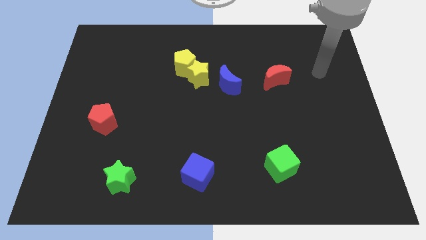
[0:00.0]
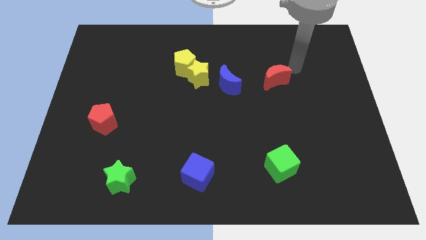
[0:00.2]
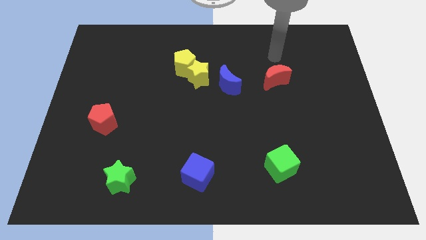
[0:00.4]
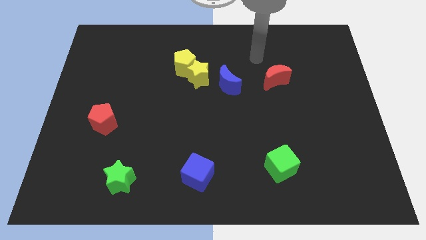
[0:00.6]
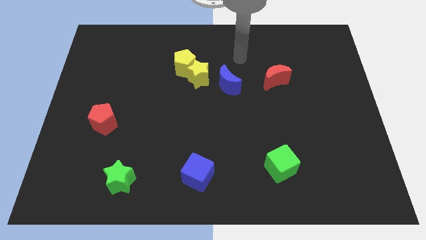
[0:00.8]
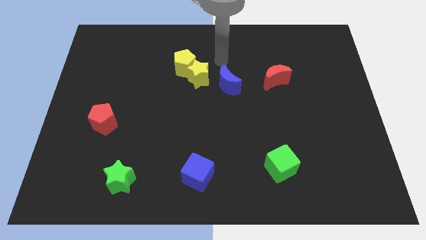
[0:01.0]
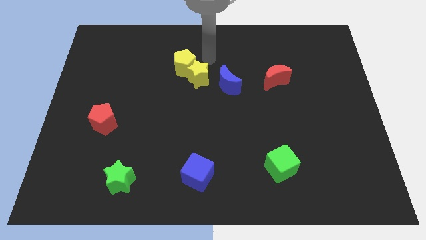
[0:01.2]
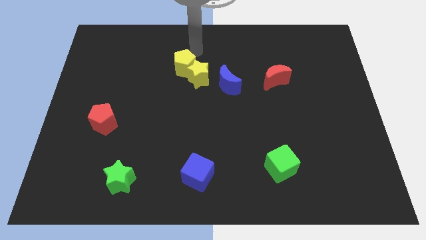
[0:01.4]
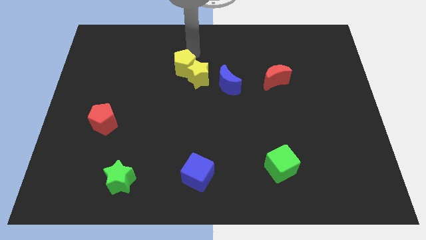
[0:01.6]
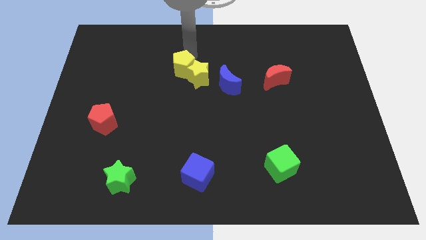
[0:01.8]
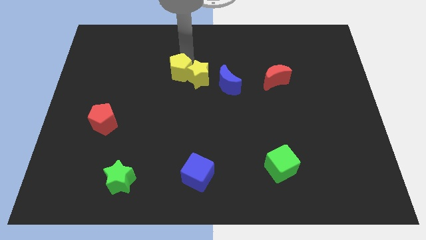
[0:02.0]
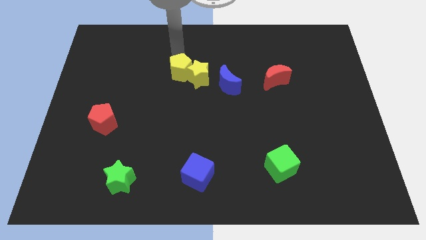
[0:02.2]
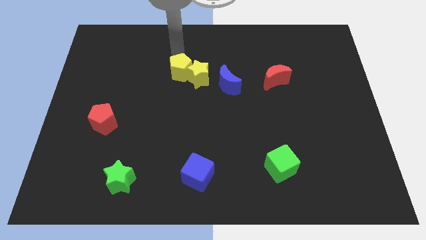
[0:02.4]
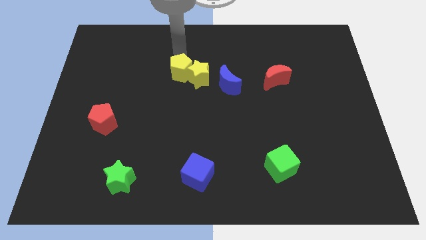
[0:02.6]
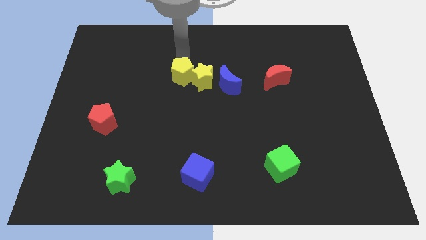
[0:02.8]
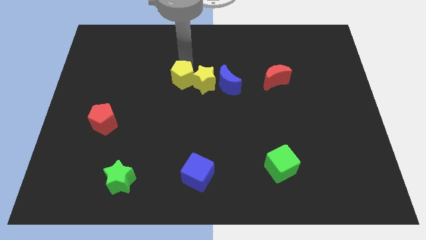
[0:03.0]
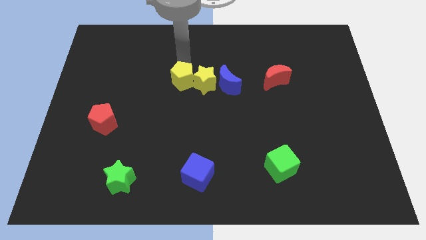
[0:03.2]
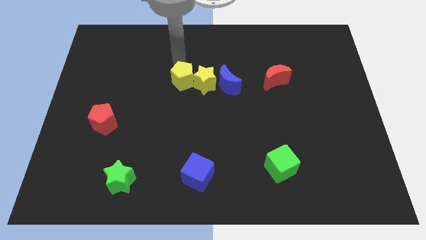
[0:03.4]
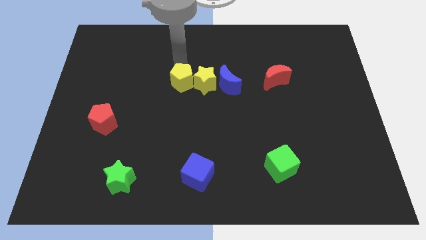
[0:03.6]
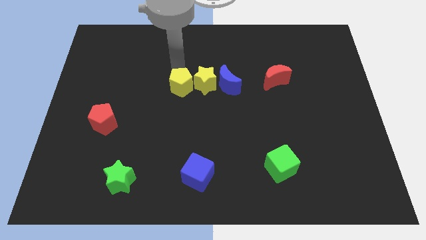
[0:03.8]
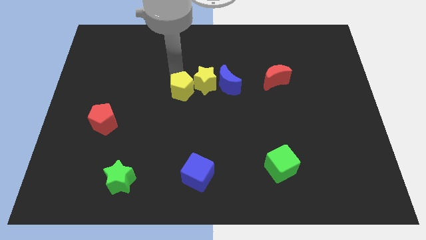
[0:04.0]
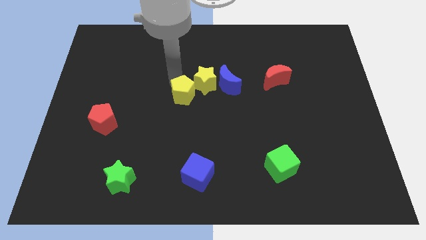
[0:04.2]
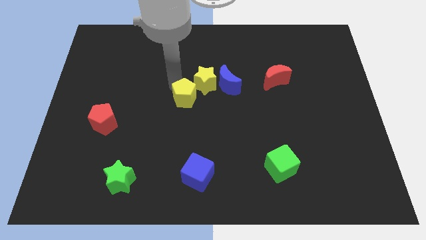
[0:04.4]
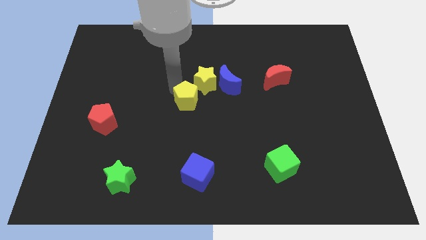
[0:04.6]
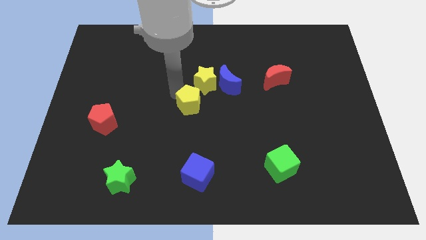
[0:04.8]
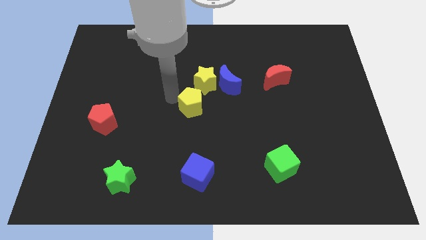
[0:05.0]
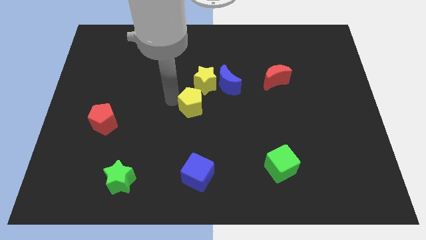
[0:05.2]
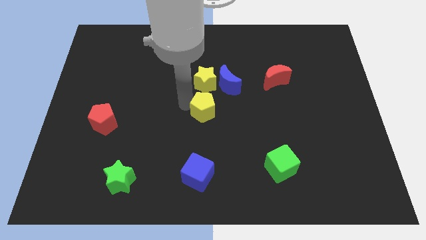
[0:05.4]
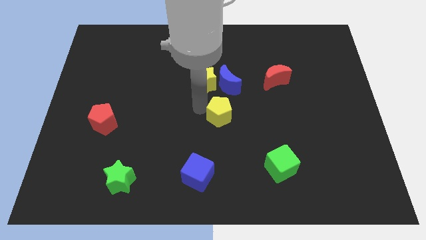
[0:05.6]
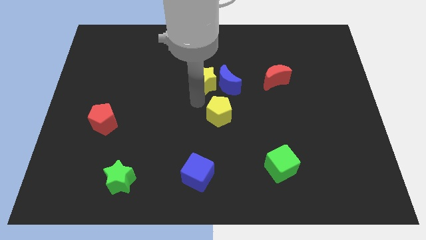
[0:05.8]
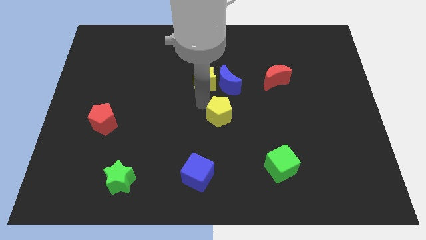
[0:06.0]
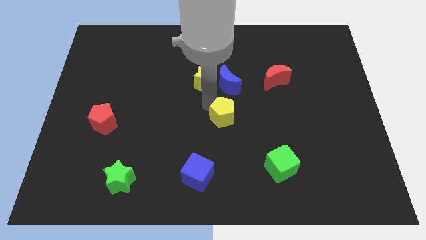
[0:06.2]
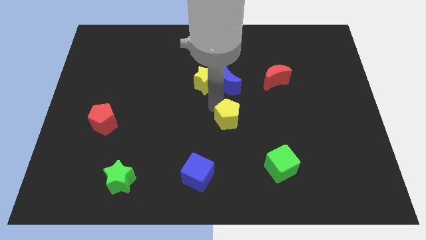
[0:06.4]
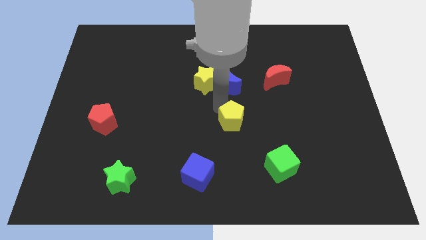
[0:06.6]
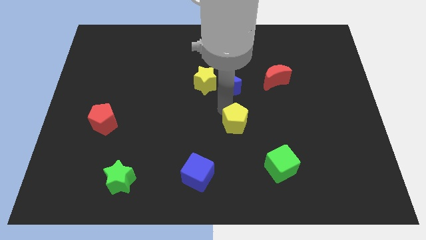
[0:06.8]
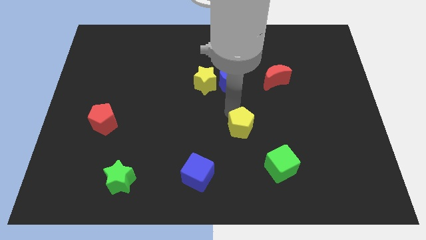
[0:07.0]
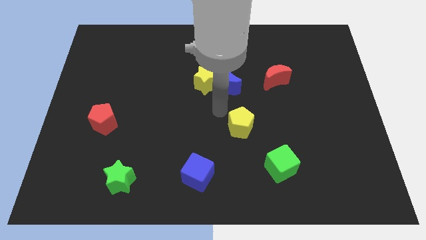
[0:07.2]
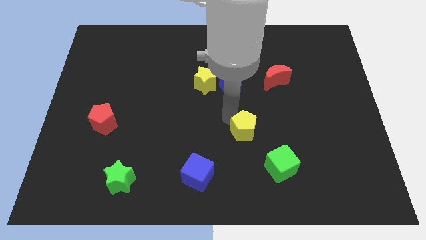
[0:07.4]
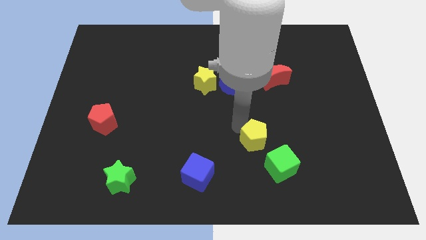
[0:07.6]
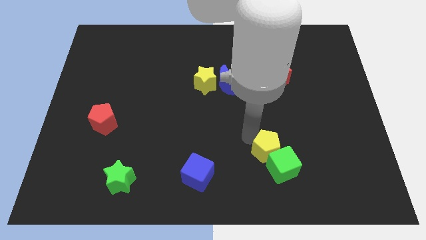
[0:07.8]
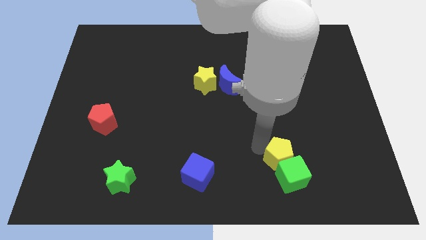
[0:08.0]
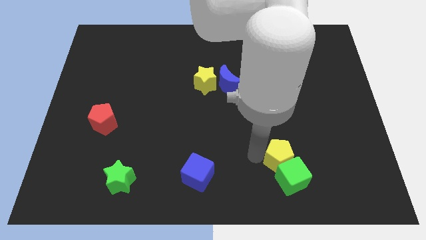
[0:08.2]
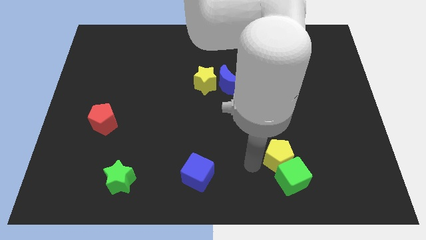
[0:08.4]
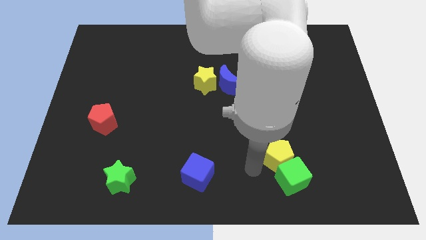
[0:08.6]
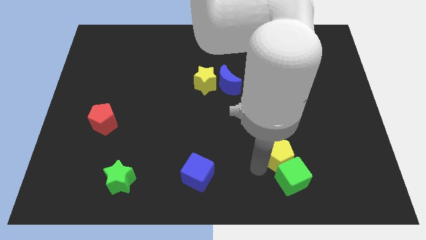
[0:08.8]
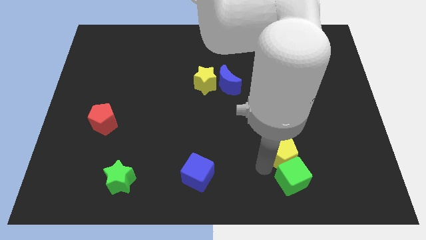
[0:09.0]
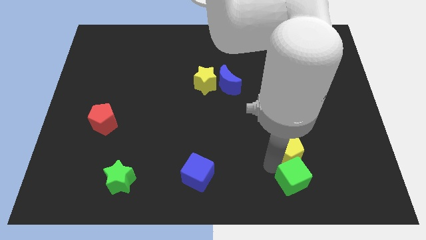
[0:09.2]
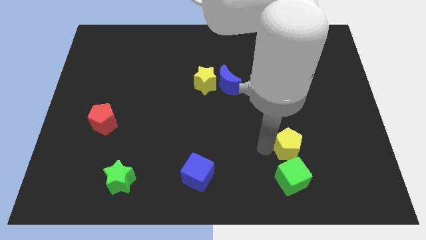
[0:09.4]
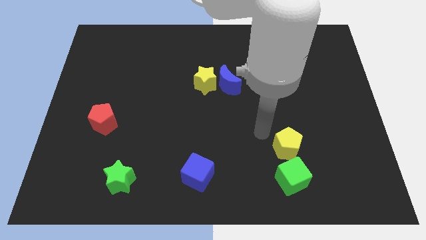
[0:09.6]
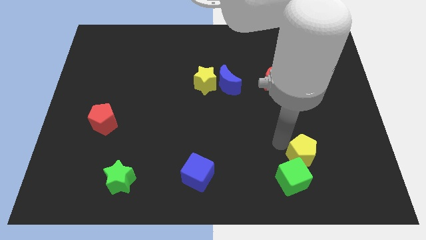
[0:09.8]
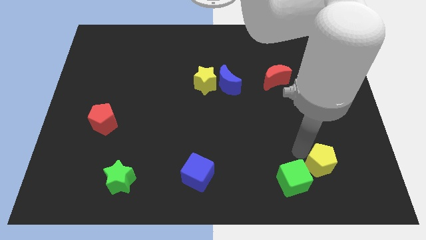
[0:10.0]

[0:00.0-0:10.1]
move the yellow pentagon just right of the green cube

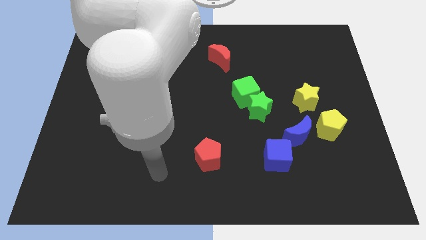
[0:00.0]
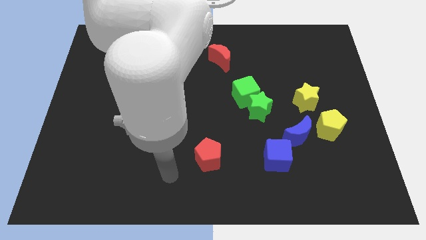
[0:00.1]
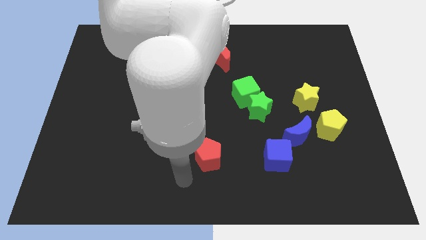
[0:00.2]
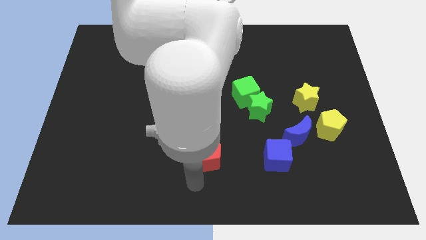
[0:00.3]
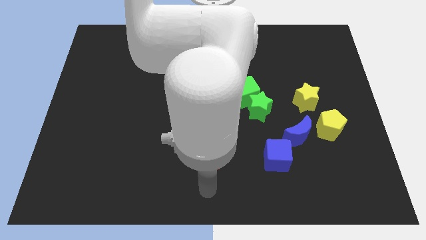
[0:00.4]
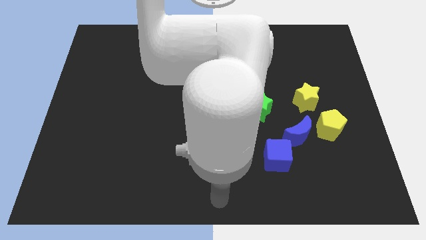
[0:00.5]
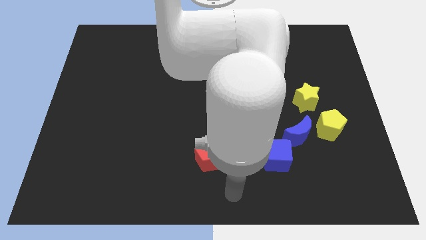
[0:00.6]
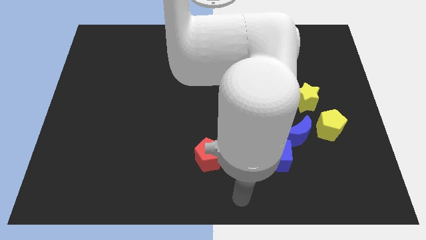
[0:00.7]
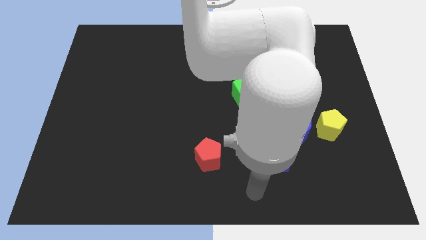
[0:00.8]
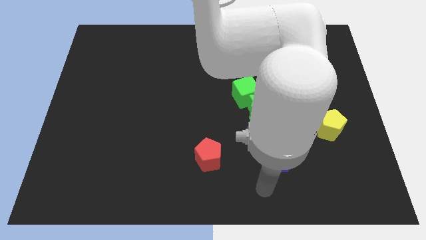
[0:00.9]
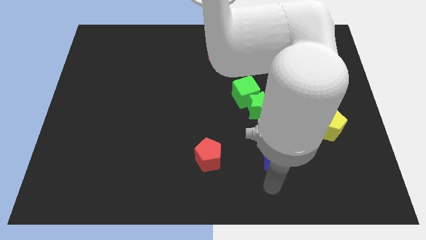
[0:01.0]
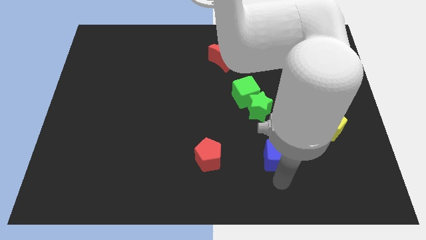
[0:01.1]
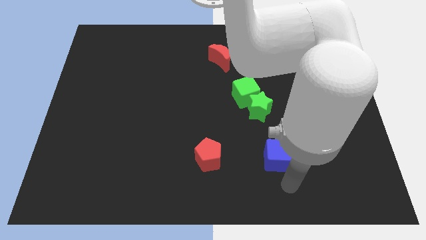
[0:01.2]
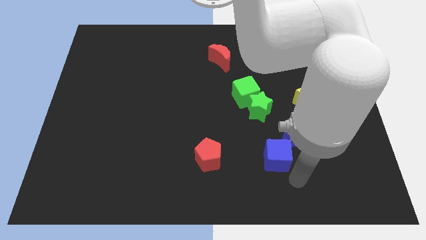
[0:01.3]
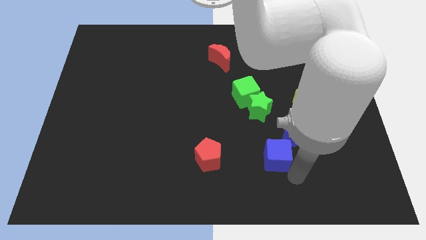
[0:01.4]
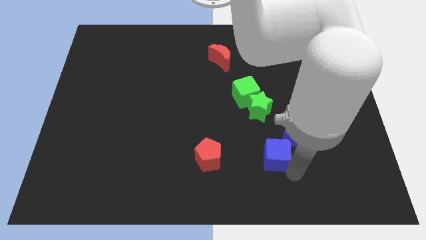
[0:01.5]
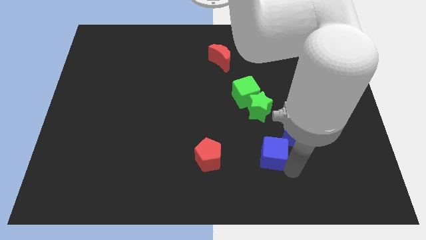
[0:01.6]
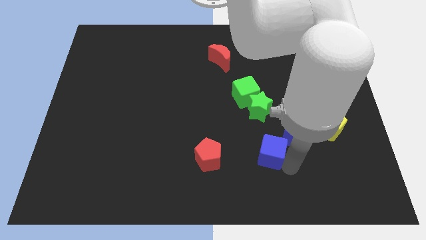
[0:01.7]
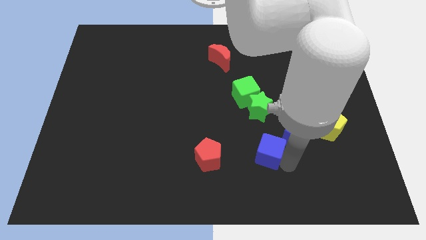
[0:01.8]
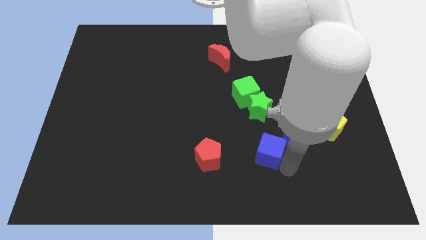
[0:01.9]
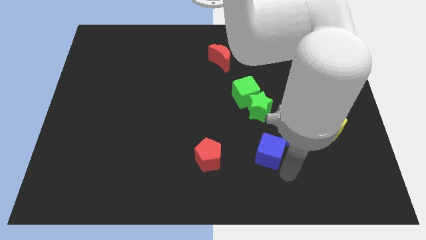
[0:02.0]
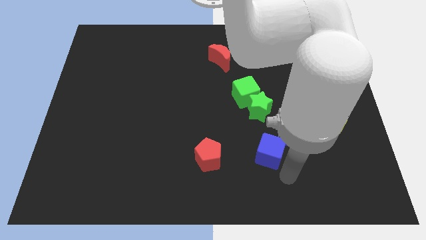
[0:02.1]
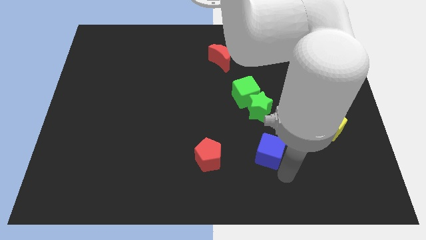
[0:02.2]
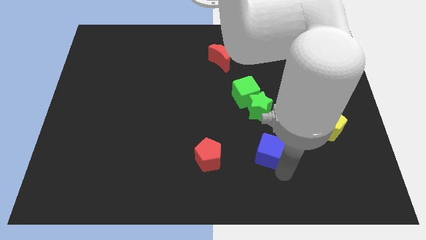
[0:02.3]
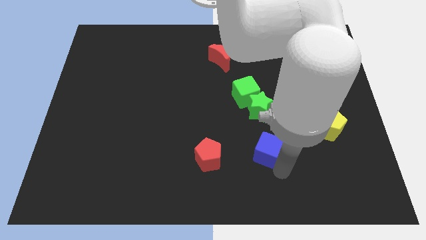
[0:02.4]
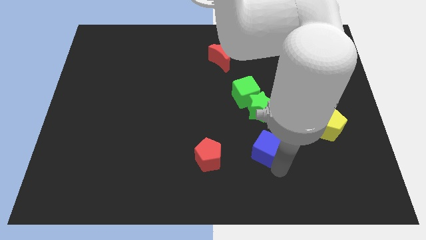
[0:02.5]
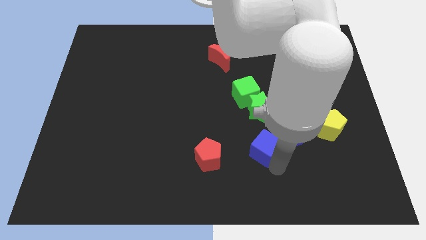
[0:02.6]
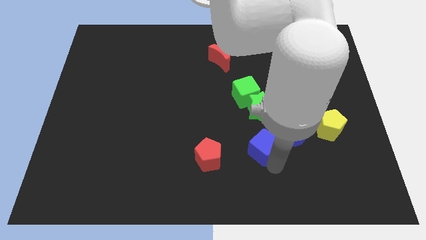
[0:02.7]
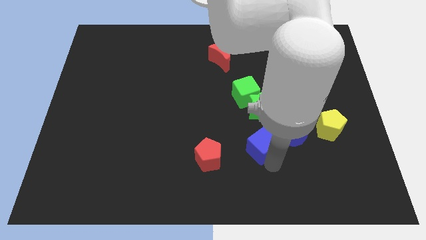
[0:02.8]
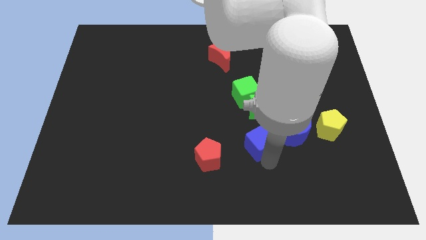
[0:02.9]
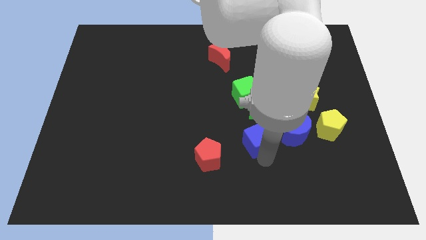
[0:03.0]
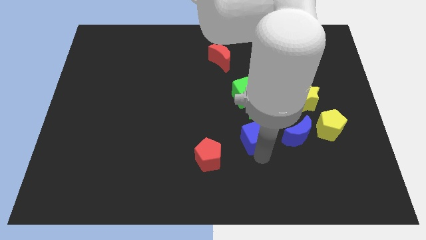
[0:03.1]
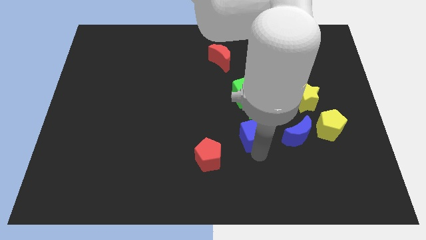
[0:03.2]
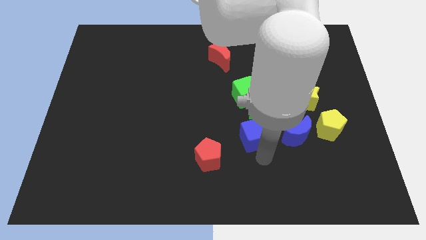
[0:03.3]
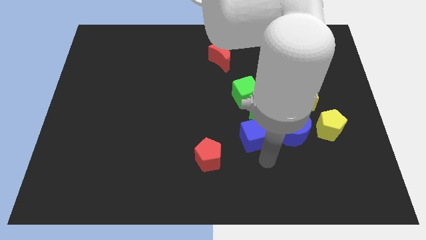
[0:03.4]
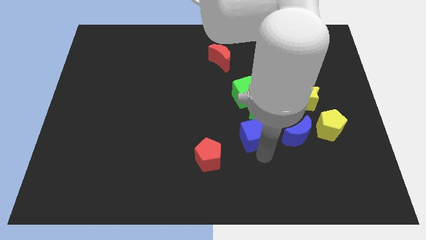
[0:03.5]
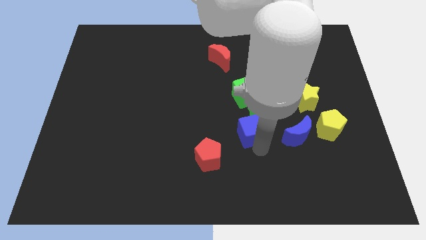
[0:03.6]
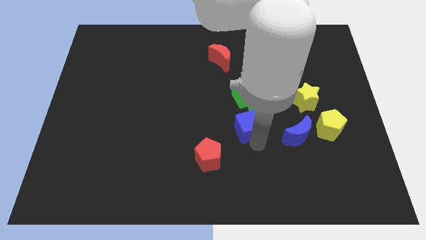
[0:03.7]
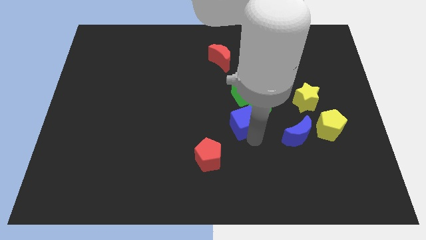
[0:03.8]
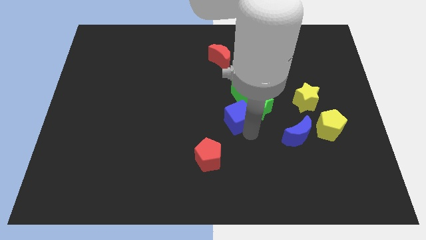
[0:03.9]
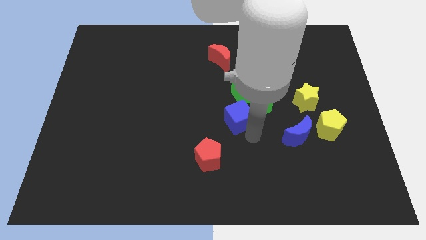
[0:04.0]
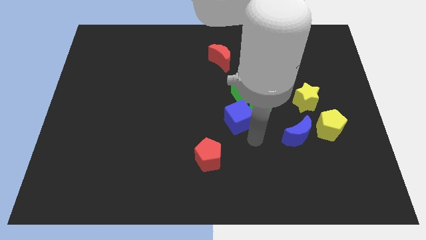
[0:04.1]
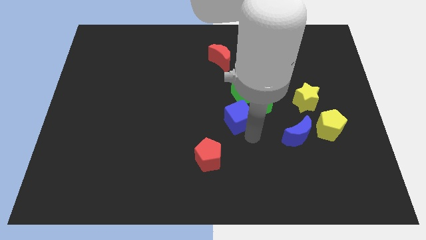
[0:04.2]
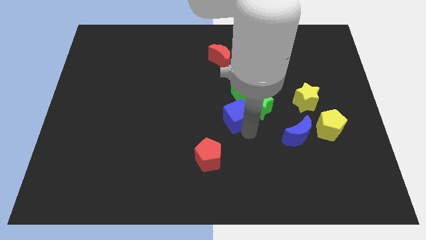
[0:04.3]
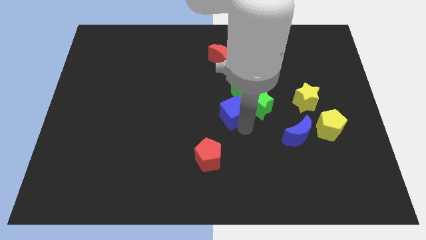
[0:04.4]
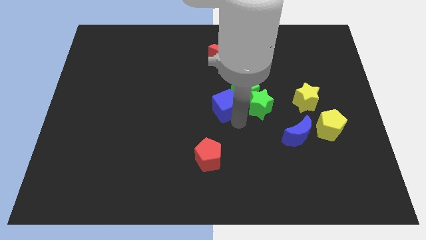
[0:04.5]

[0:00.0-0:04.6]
move the blue cube to the bottom of the red moon
